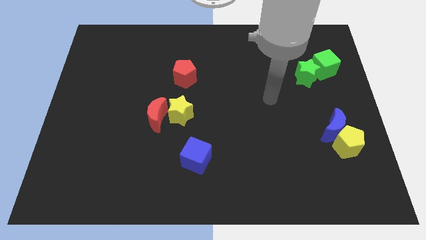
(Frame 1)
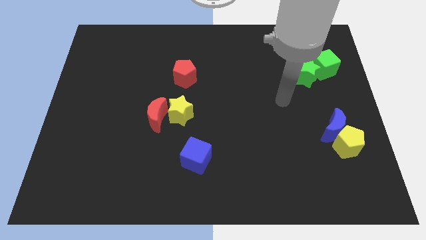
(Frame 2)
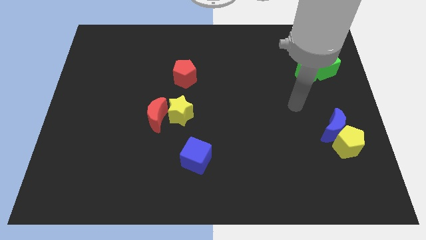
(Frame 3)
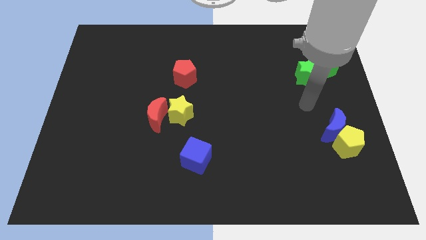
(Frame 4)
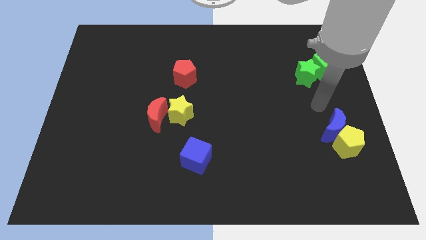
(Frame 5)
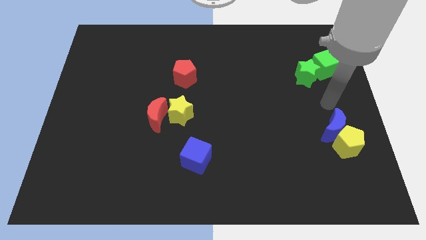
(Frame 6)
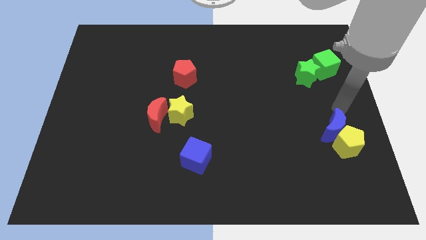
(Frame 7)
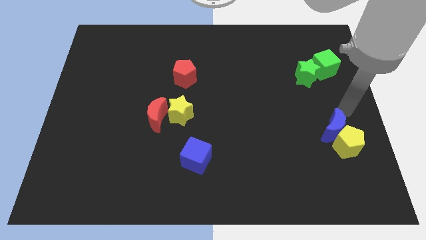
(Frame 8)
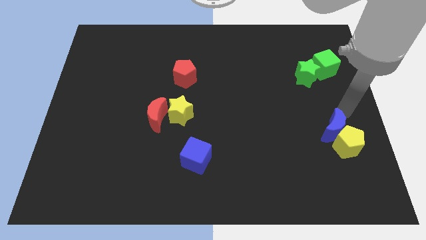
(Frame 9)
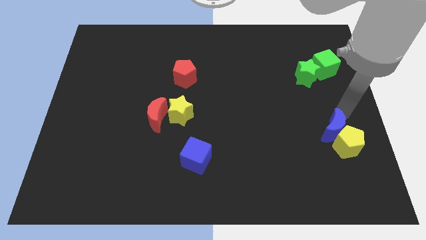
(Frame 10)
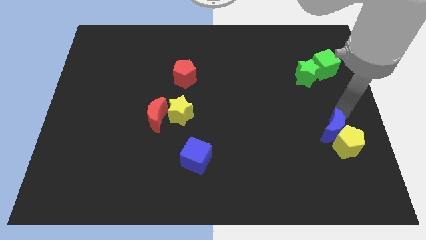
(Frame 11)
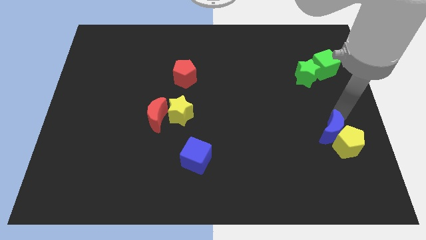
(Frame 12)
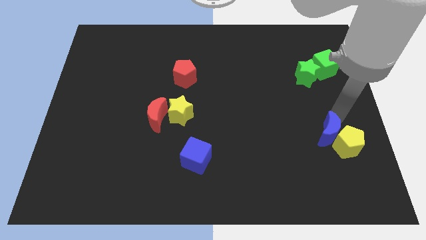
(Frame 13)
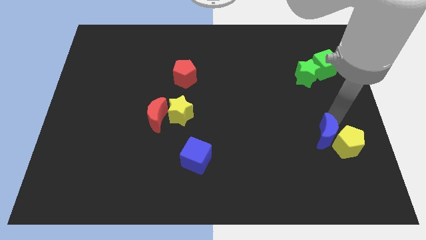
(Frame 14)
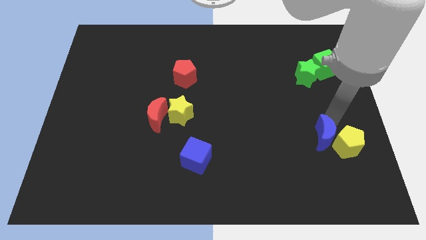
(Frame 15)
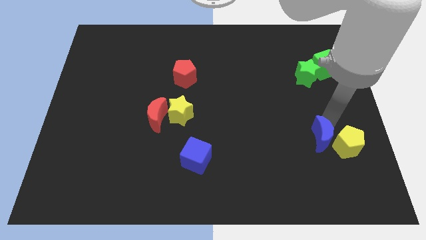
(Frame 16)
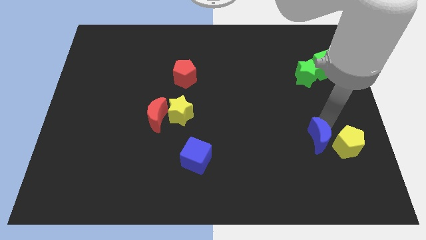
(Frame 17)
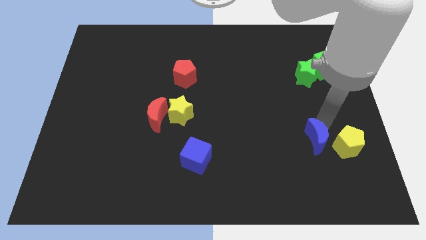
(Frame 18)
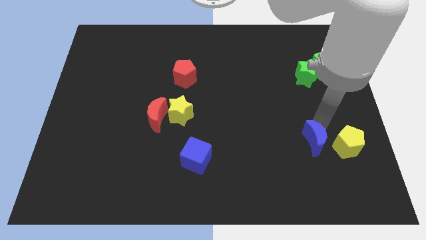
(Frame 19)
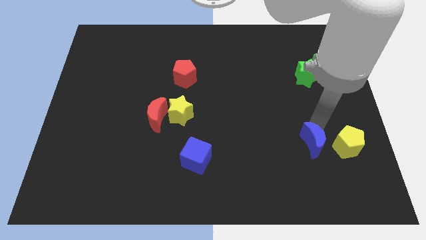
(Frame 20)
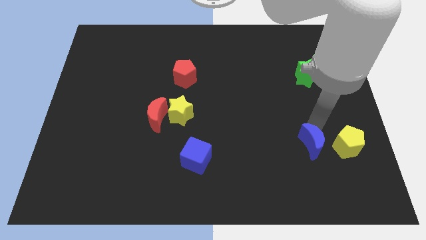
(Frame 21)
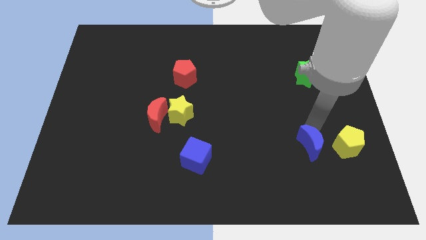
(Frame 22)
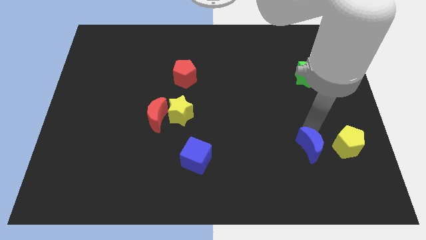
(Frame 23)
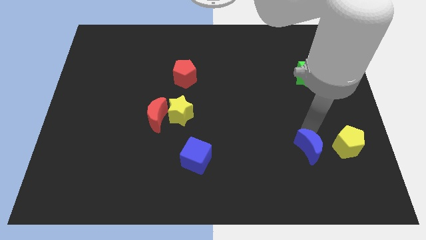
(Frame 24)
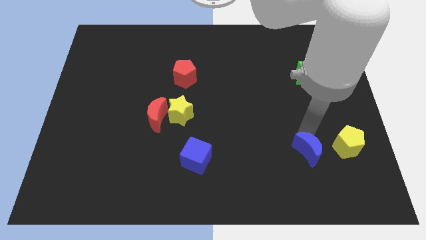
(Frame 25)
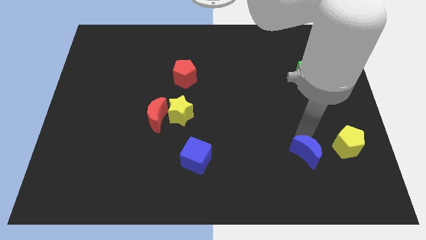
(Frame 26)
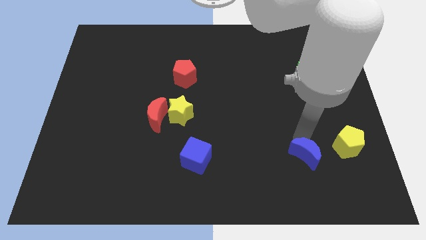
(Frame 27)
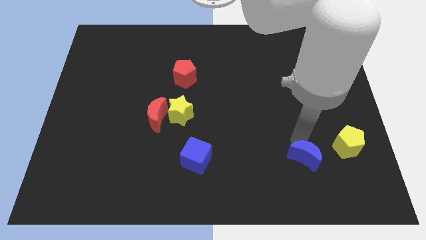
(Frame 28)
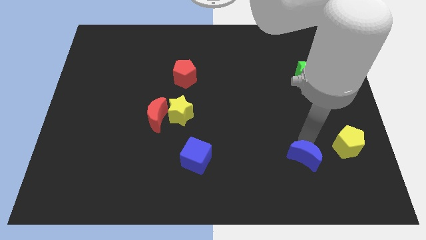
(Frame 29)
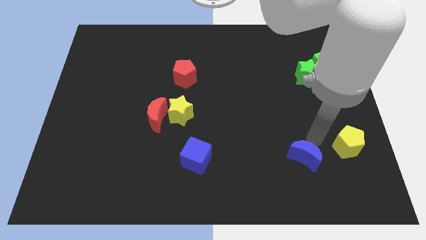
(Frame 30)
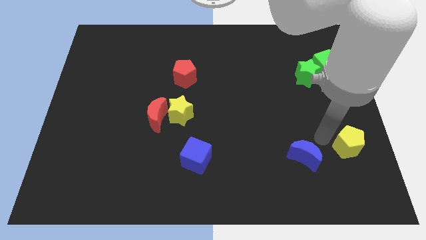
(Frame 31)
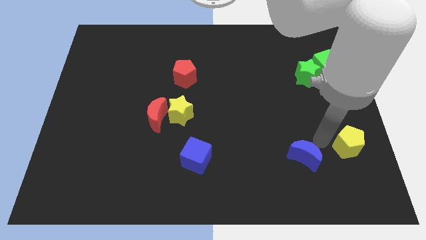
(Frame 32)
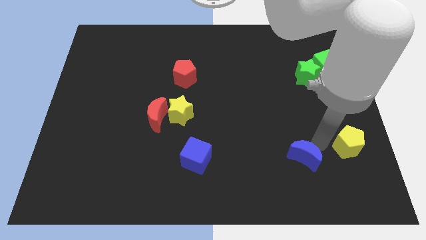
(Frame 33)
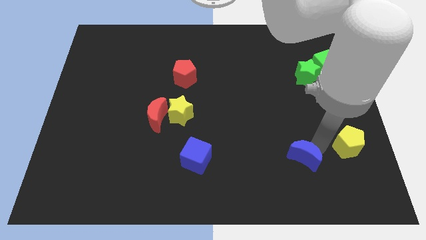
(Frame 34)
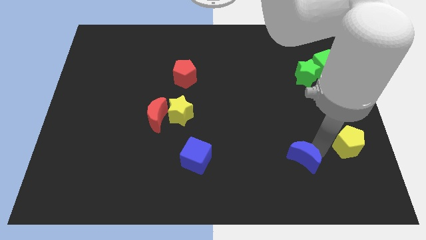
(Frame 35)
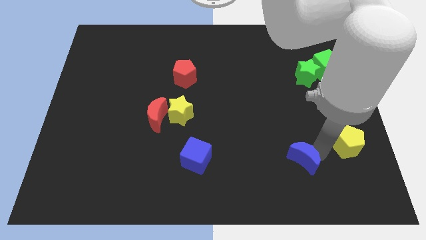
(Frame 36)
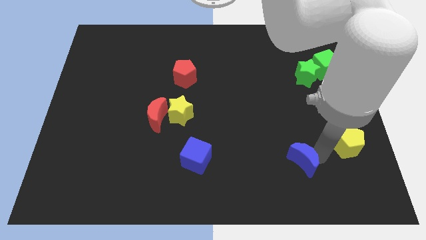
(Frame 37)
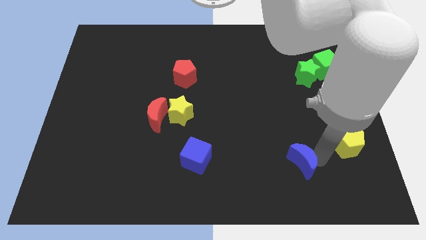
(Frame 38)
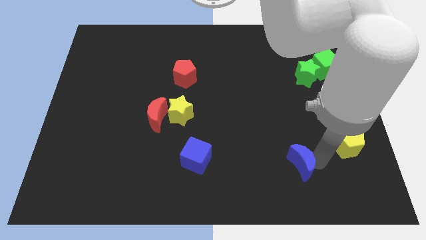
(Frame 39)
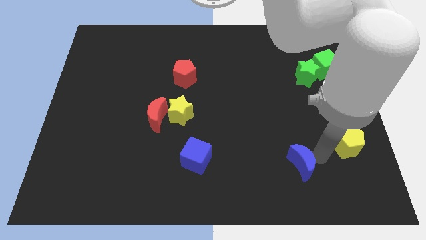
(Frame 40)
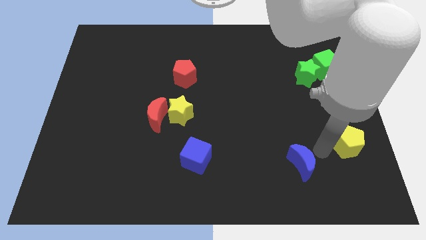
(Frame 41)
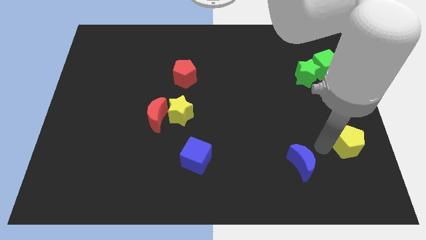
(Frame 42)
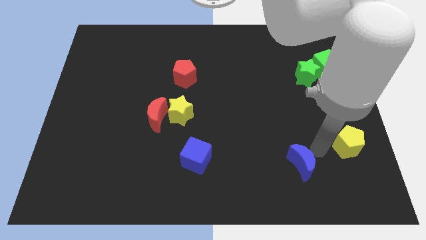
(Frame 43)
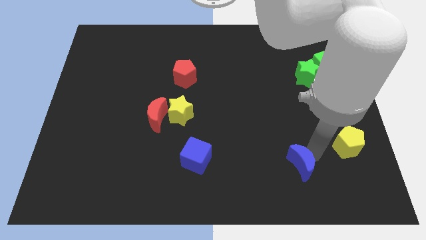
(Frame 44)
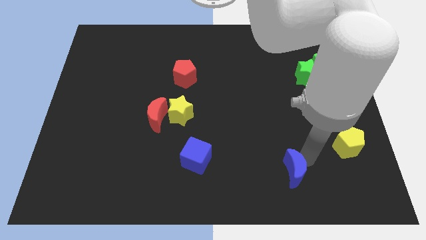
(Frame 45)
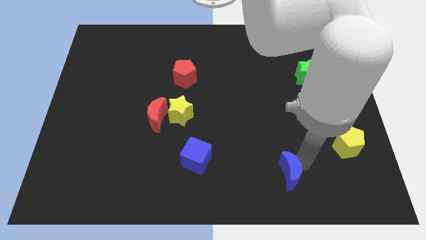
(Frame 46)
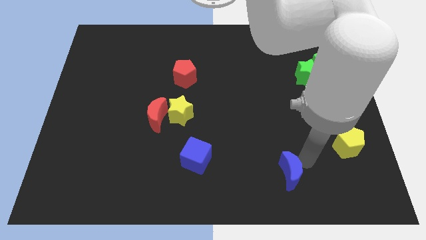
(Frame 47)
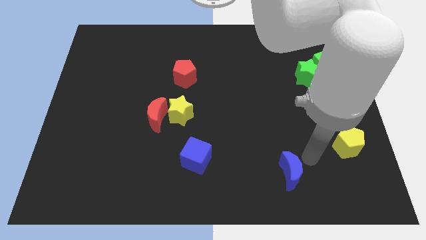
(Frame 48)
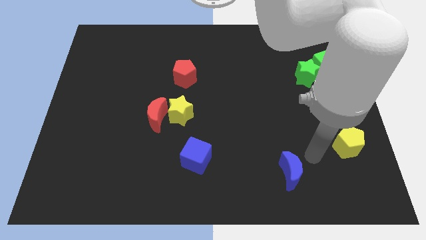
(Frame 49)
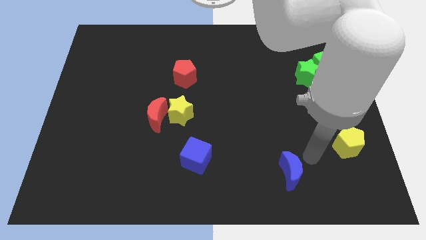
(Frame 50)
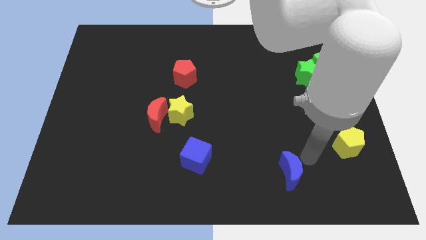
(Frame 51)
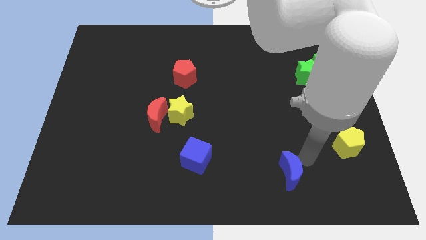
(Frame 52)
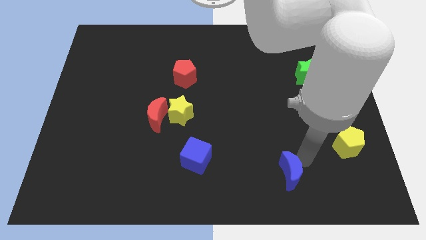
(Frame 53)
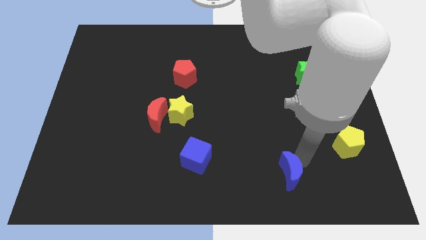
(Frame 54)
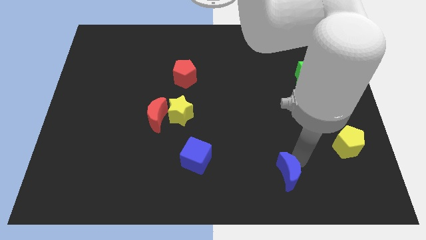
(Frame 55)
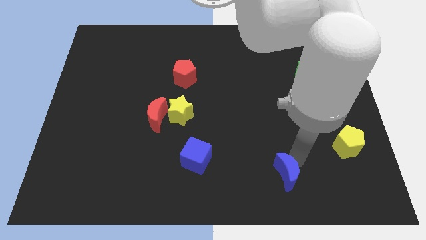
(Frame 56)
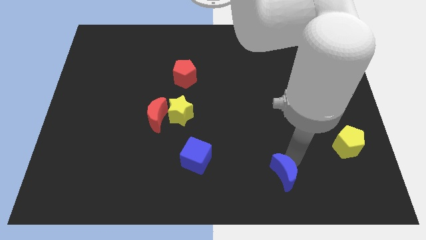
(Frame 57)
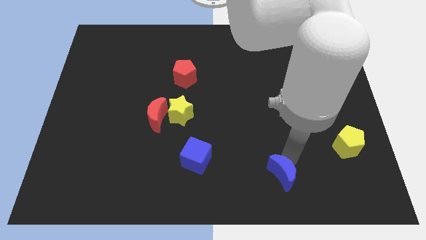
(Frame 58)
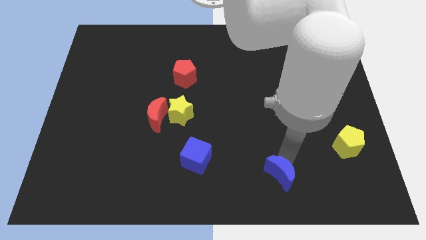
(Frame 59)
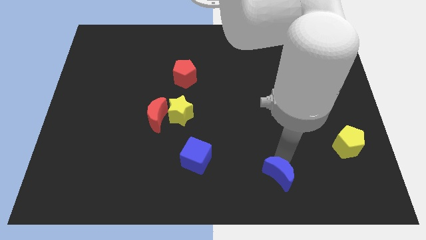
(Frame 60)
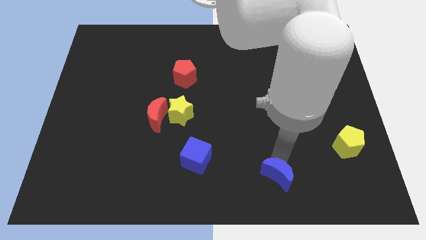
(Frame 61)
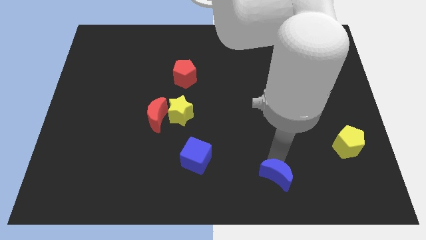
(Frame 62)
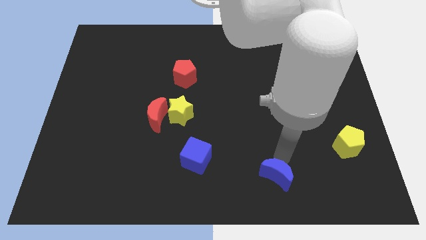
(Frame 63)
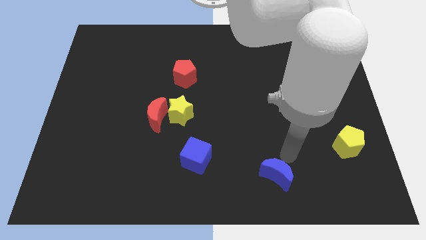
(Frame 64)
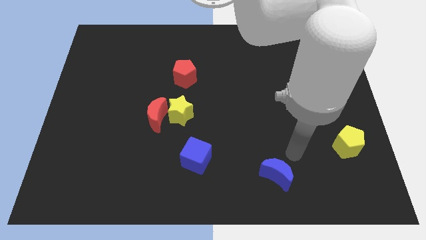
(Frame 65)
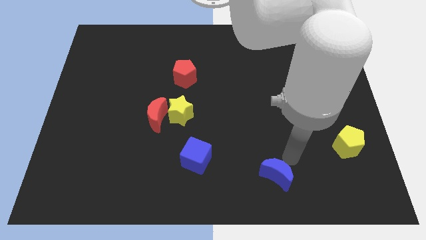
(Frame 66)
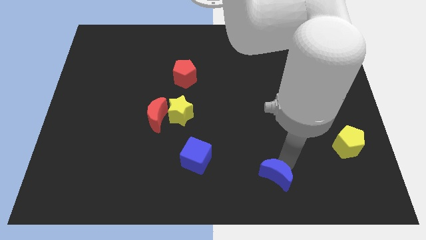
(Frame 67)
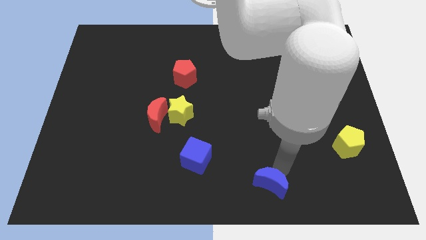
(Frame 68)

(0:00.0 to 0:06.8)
push the blue moon to the bottom
